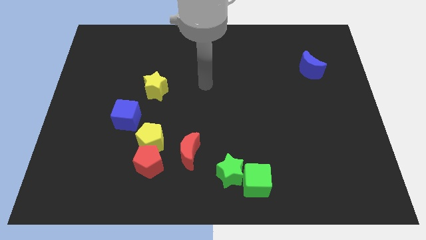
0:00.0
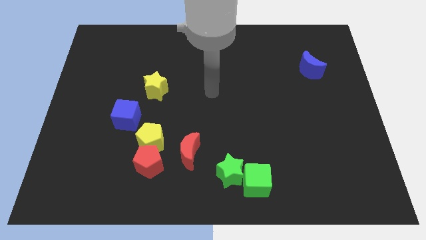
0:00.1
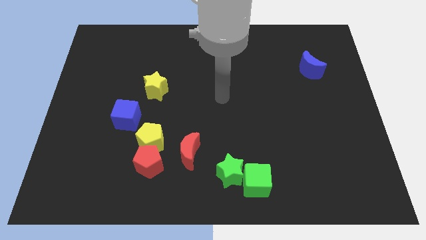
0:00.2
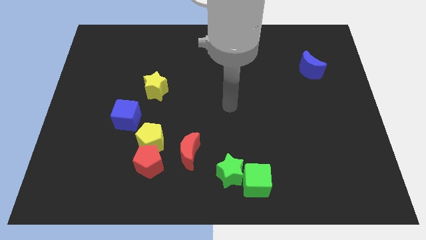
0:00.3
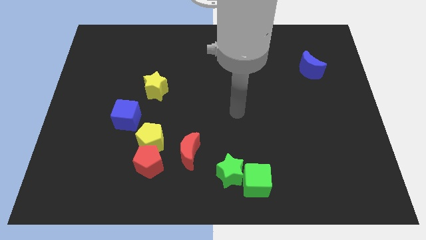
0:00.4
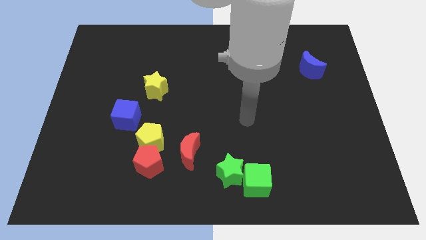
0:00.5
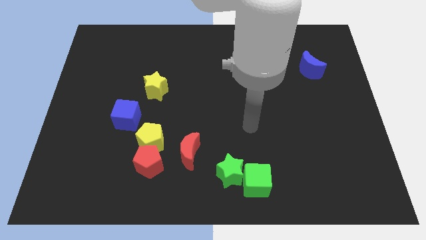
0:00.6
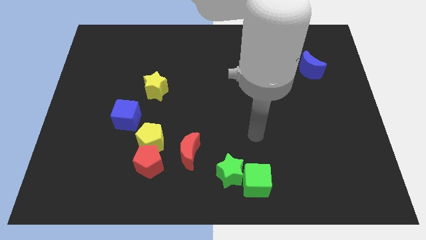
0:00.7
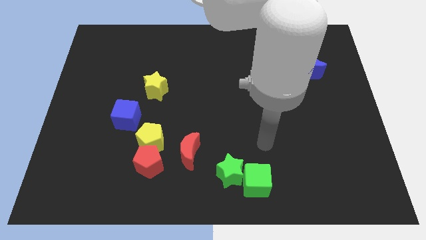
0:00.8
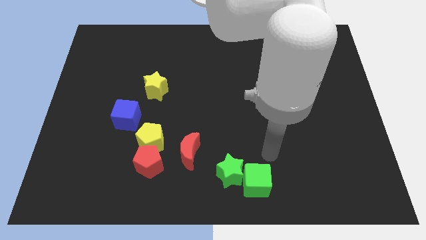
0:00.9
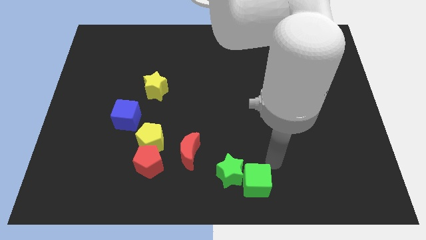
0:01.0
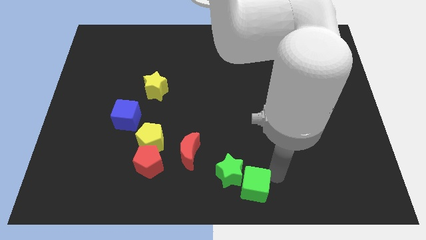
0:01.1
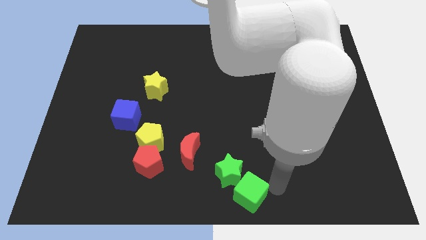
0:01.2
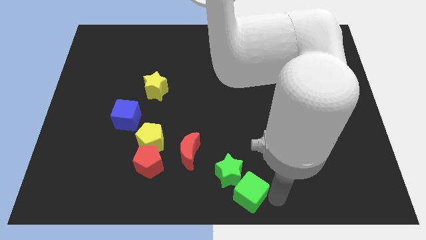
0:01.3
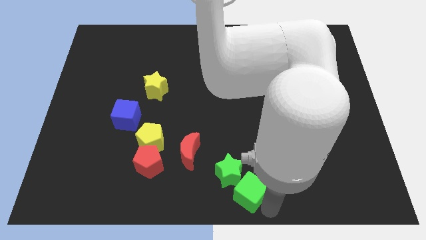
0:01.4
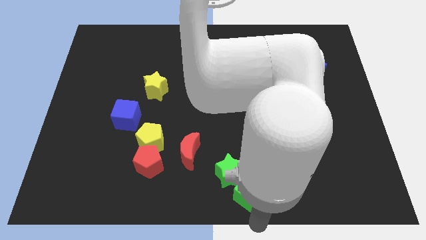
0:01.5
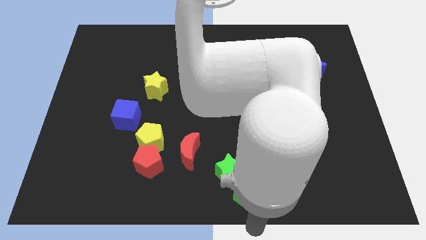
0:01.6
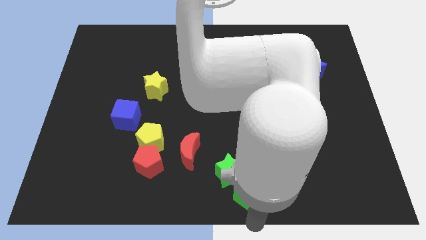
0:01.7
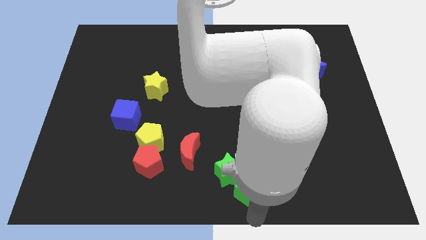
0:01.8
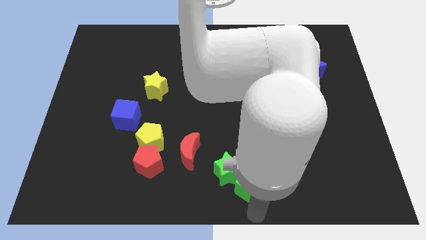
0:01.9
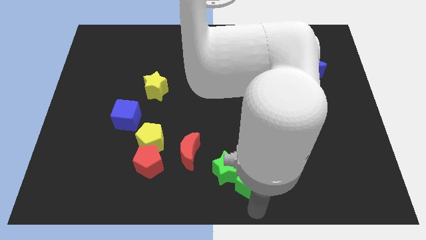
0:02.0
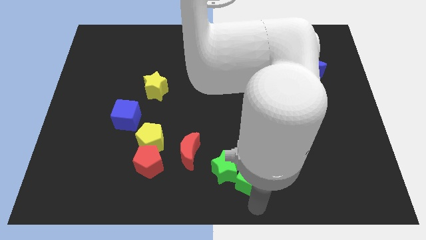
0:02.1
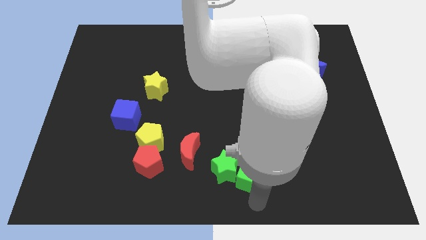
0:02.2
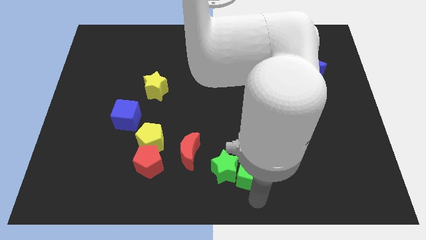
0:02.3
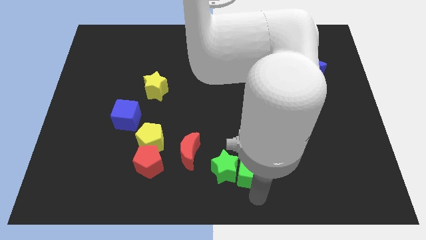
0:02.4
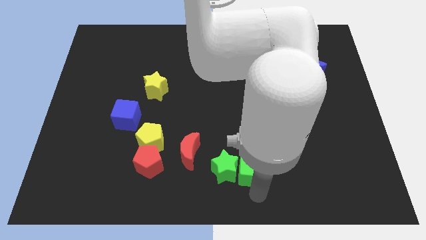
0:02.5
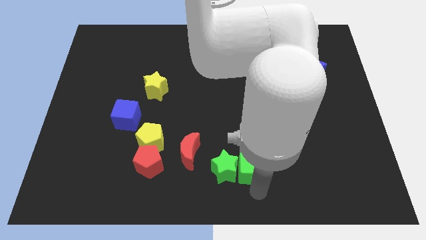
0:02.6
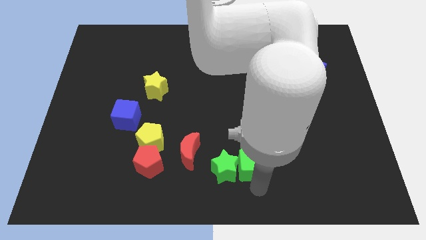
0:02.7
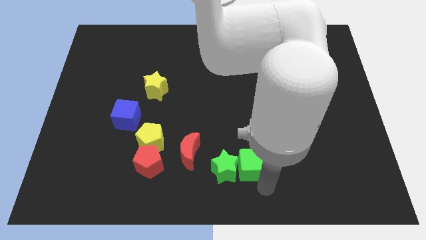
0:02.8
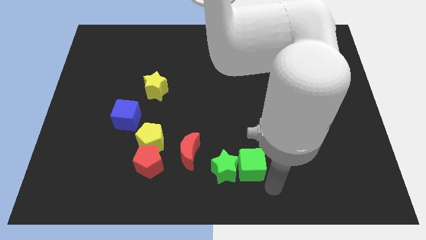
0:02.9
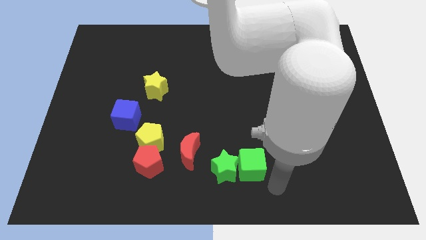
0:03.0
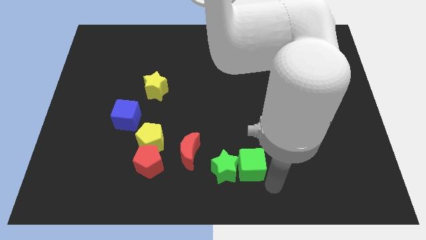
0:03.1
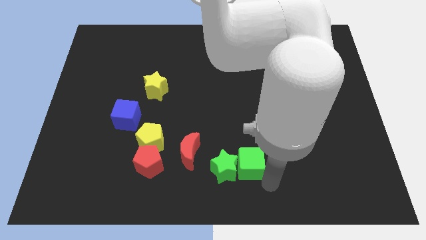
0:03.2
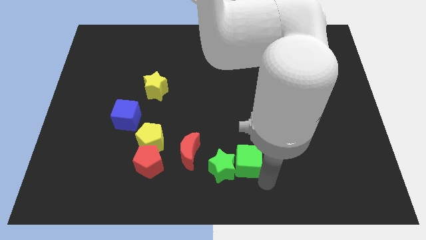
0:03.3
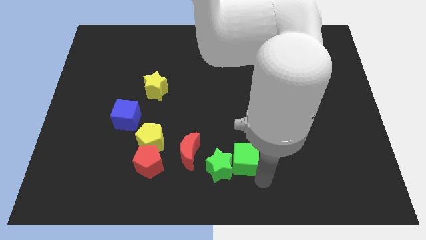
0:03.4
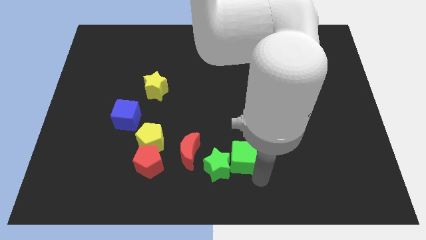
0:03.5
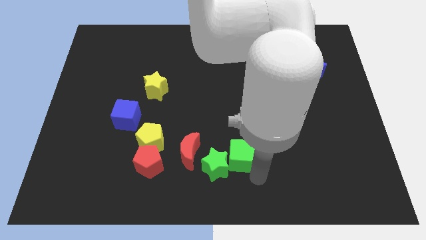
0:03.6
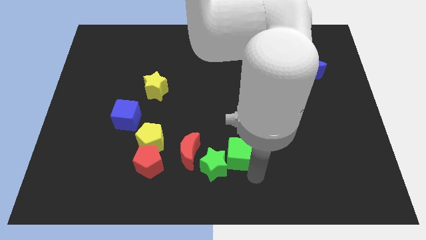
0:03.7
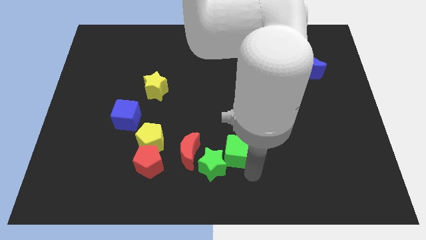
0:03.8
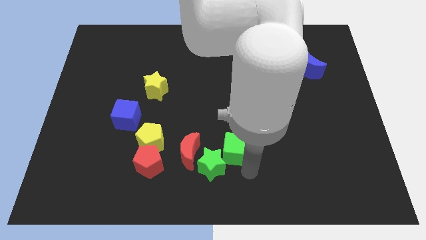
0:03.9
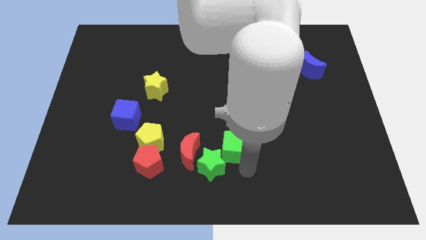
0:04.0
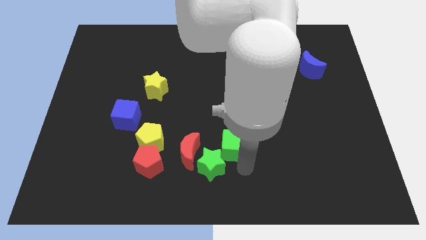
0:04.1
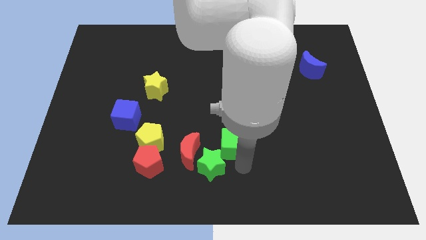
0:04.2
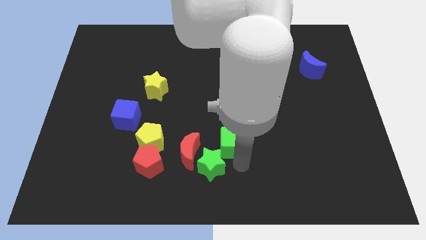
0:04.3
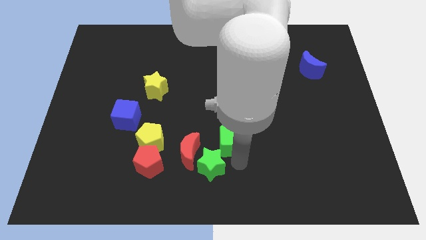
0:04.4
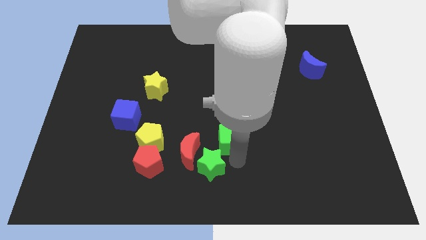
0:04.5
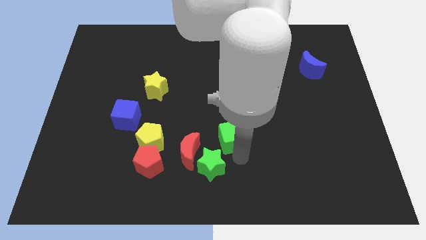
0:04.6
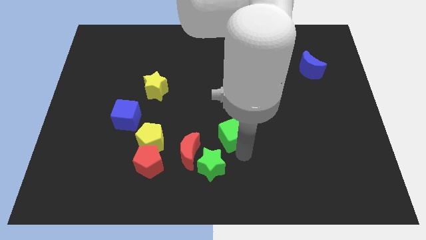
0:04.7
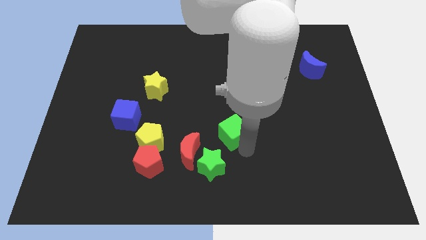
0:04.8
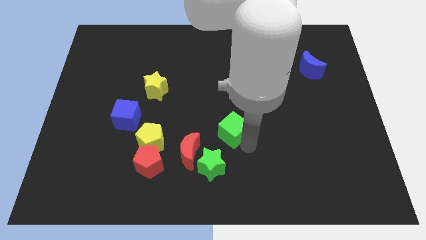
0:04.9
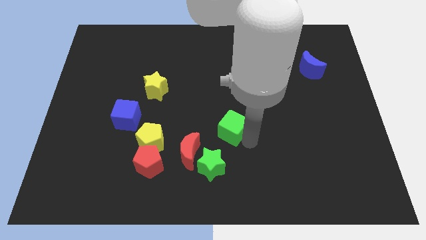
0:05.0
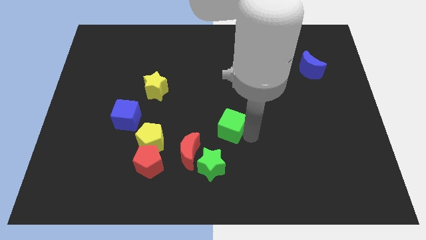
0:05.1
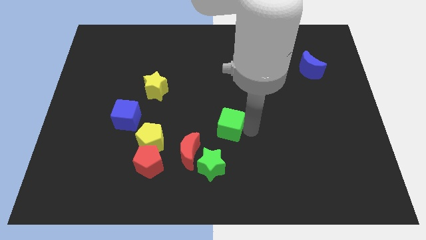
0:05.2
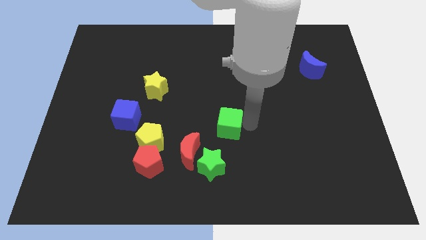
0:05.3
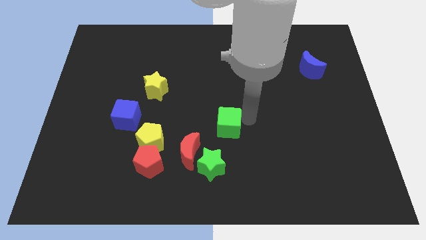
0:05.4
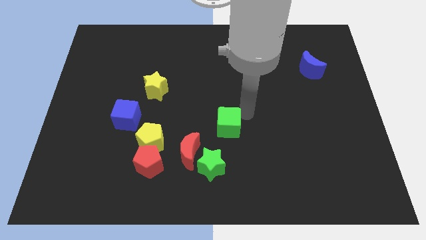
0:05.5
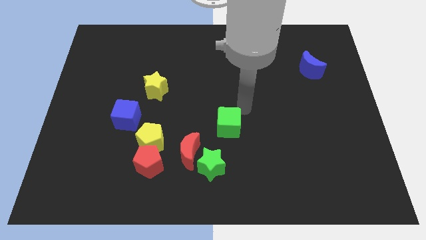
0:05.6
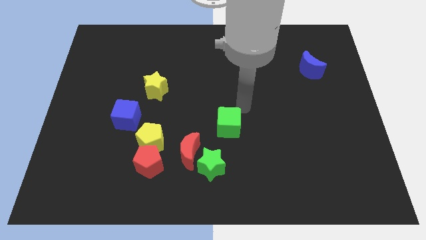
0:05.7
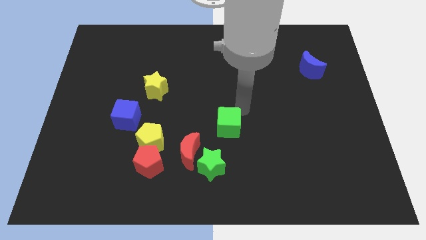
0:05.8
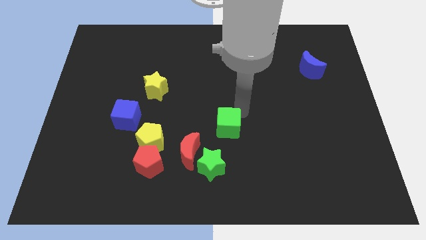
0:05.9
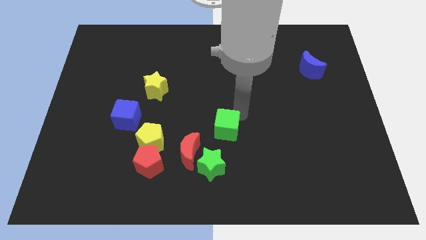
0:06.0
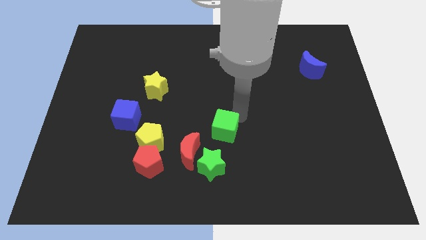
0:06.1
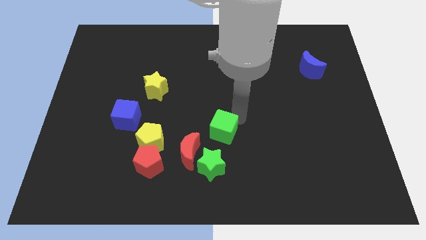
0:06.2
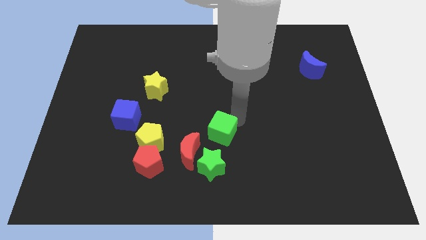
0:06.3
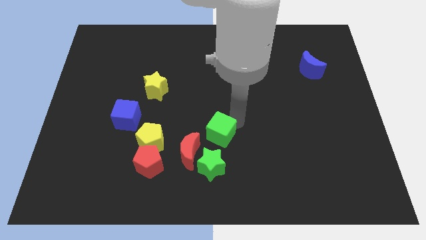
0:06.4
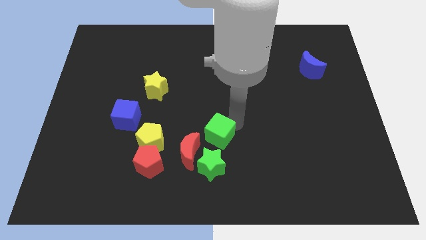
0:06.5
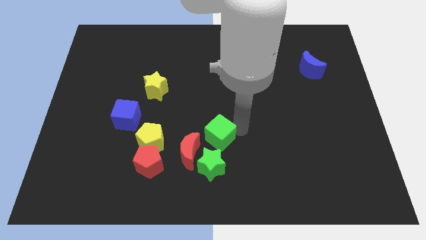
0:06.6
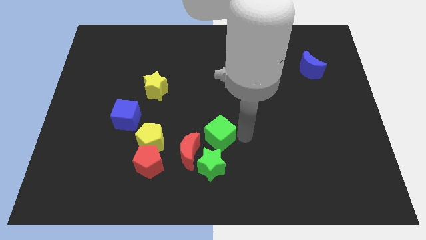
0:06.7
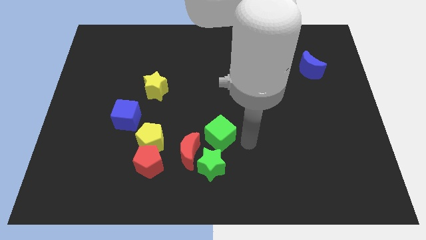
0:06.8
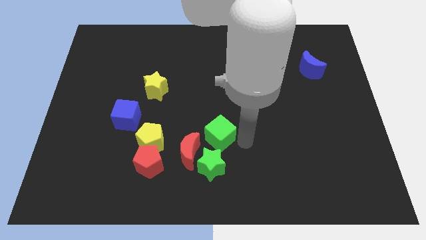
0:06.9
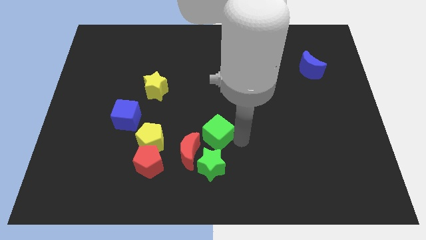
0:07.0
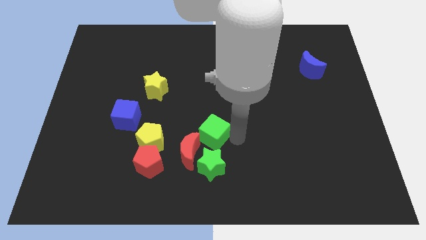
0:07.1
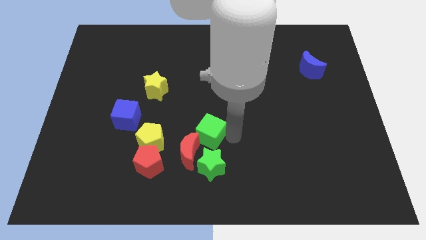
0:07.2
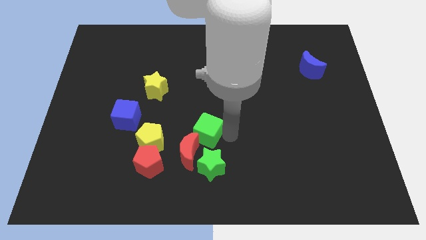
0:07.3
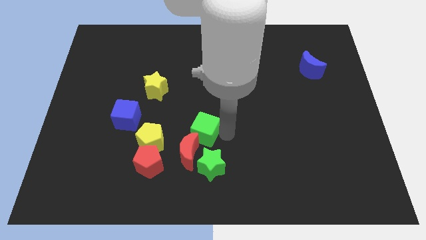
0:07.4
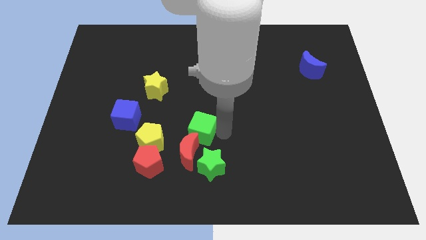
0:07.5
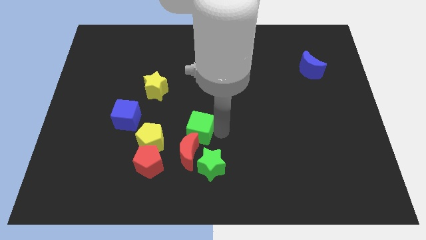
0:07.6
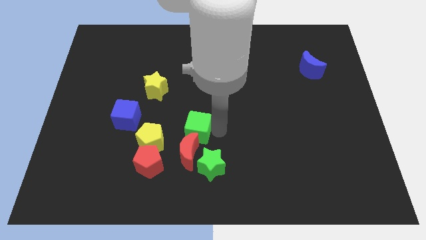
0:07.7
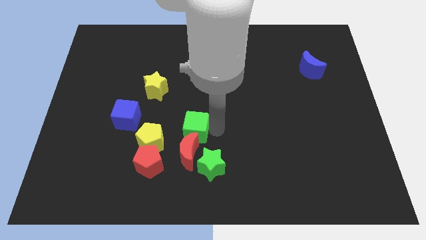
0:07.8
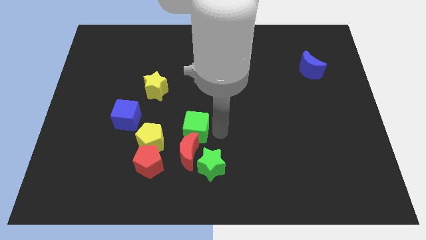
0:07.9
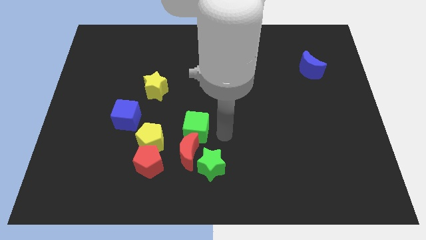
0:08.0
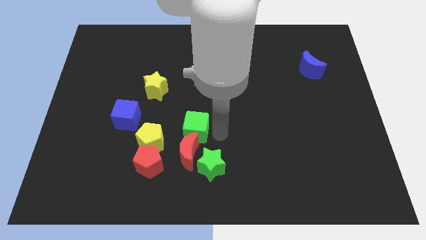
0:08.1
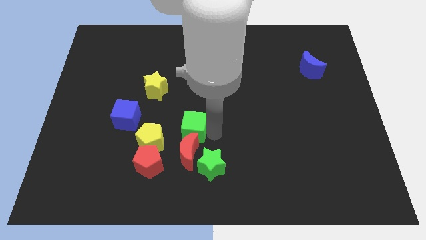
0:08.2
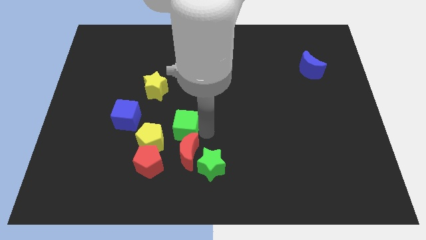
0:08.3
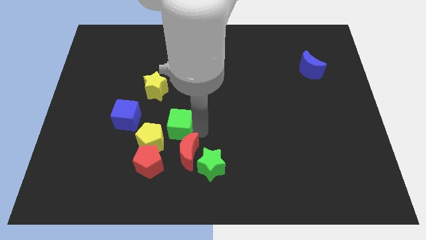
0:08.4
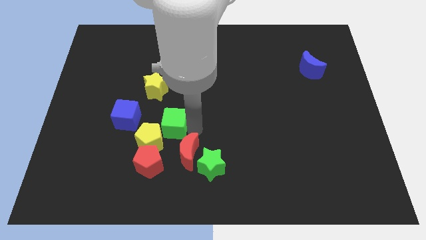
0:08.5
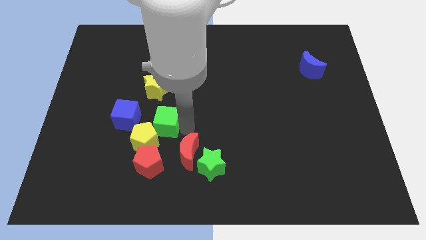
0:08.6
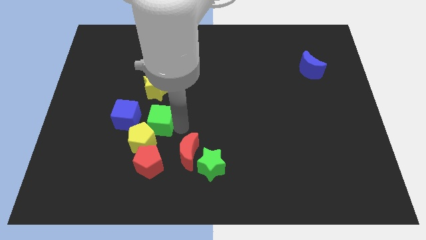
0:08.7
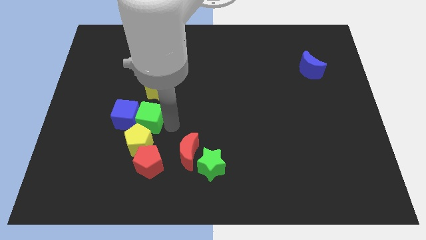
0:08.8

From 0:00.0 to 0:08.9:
push the green cube towards the blue cube
